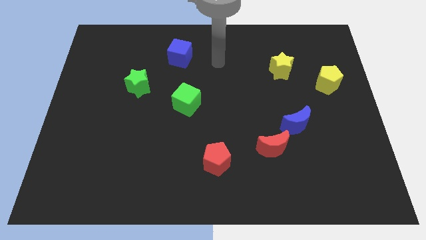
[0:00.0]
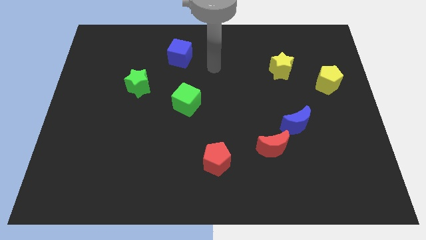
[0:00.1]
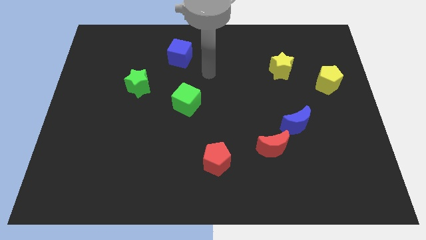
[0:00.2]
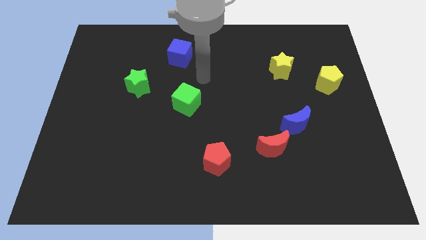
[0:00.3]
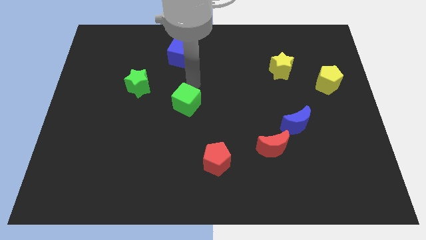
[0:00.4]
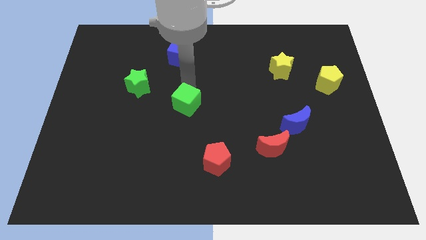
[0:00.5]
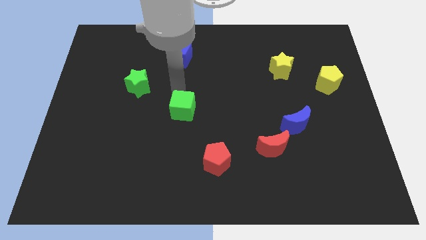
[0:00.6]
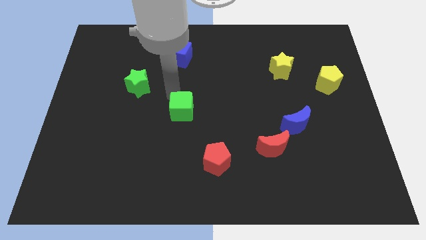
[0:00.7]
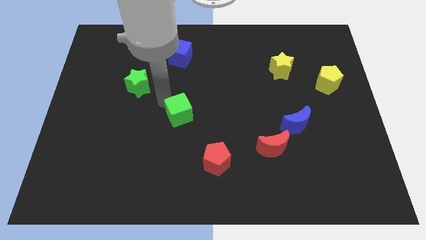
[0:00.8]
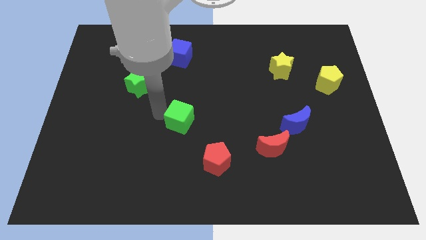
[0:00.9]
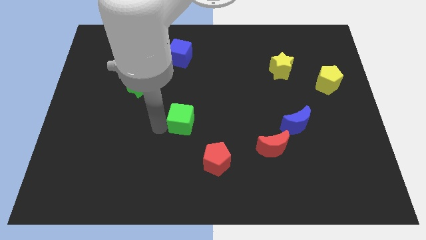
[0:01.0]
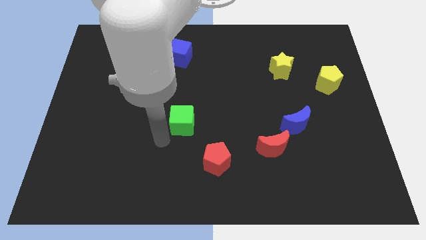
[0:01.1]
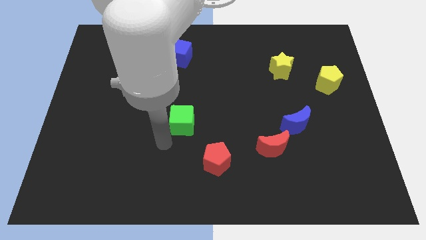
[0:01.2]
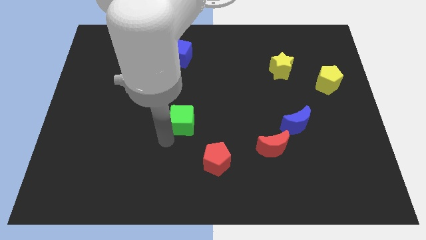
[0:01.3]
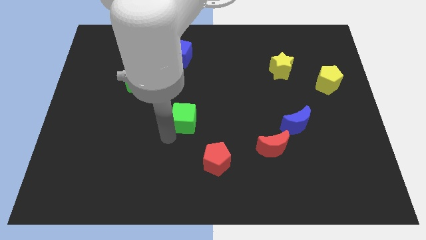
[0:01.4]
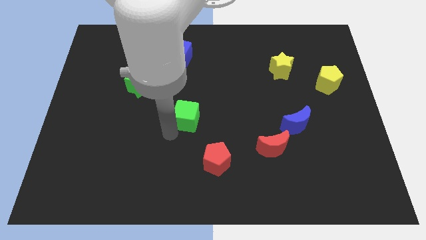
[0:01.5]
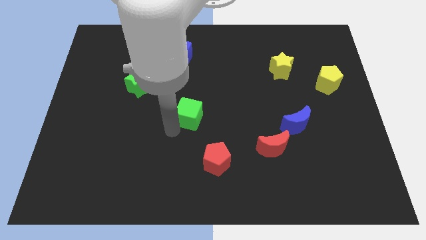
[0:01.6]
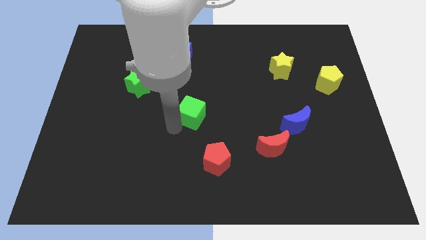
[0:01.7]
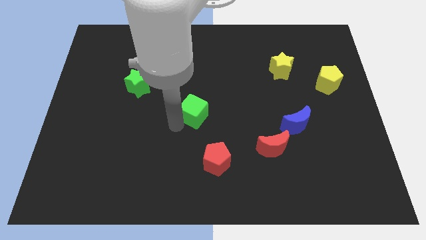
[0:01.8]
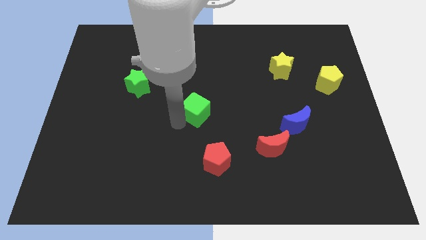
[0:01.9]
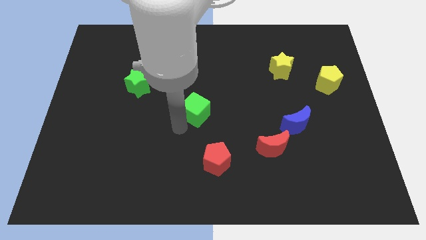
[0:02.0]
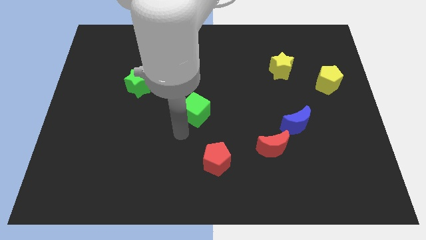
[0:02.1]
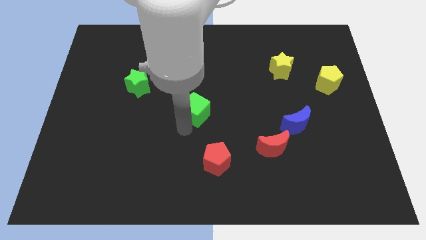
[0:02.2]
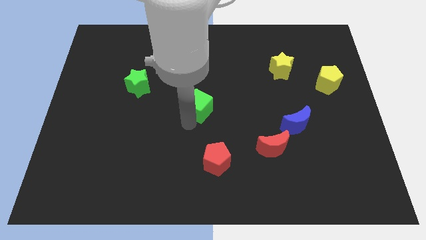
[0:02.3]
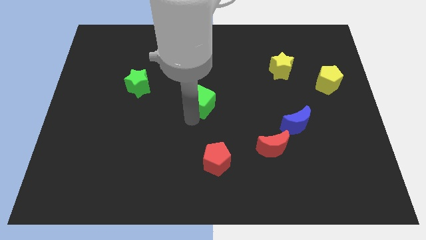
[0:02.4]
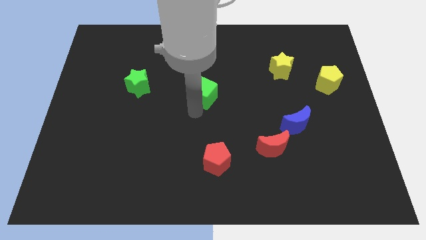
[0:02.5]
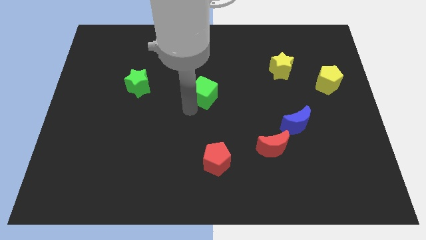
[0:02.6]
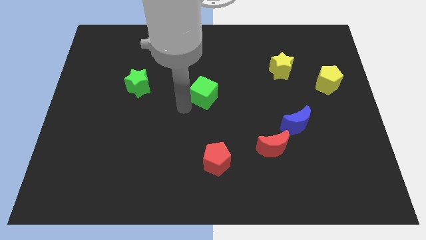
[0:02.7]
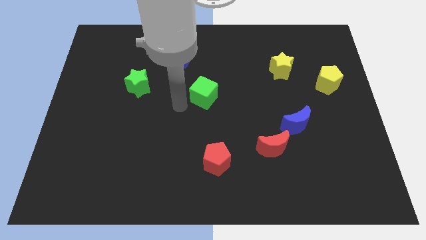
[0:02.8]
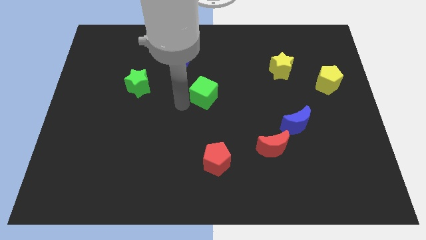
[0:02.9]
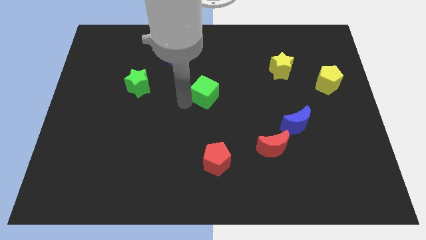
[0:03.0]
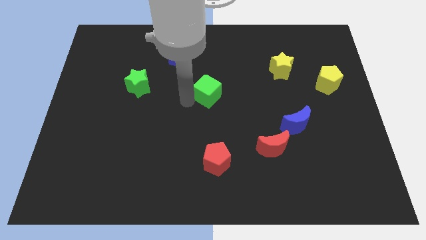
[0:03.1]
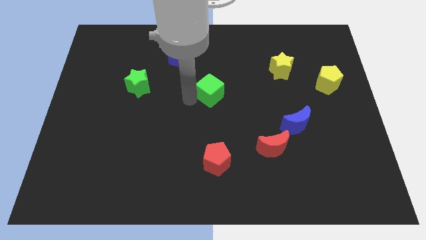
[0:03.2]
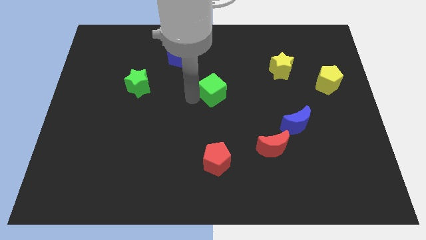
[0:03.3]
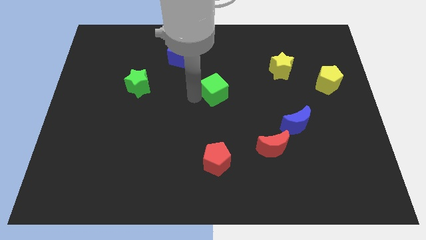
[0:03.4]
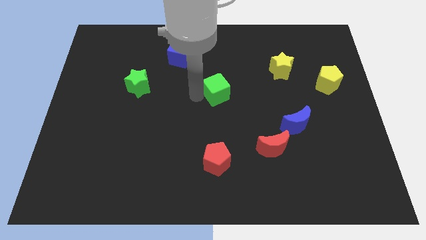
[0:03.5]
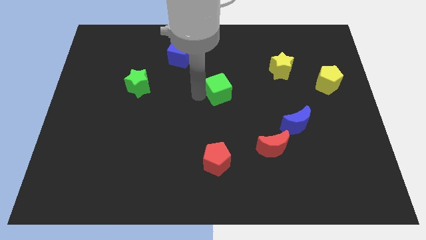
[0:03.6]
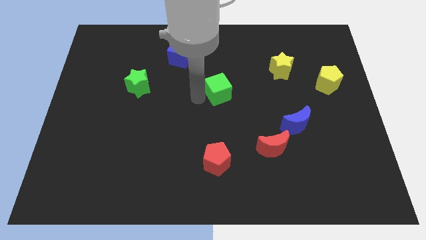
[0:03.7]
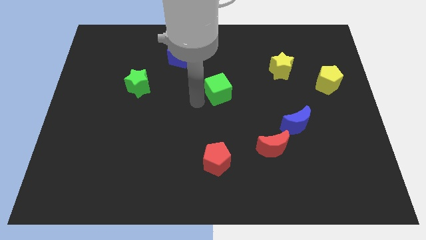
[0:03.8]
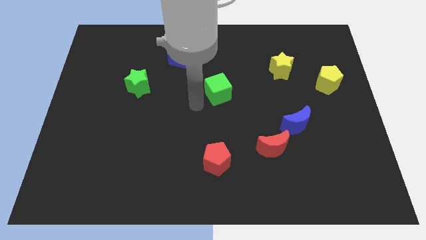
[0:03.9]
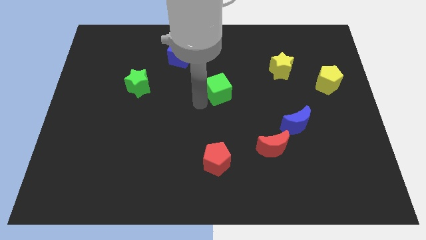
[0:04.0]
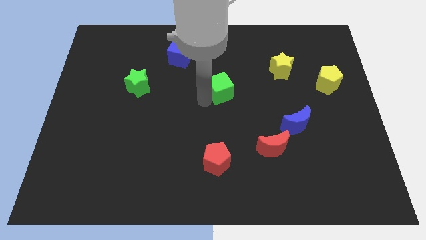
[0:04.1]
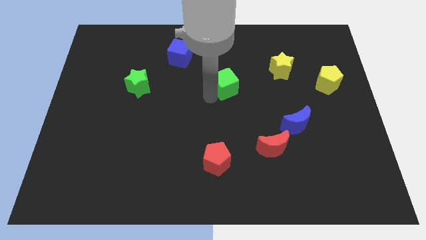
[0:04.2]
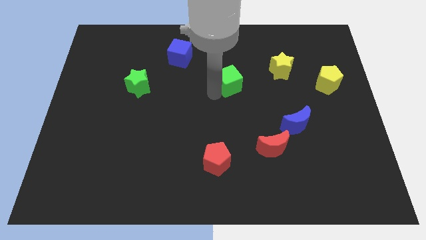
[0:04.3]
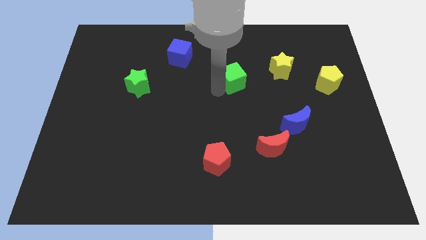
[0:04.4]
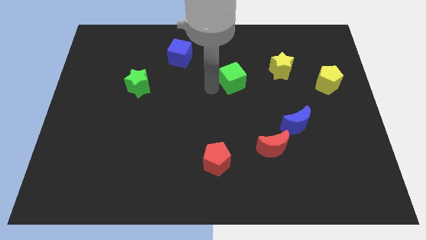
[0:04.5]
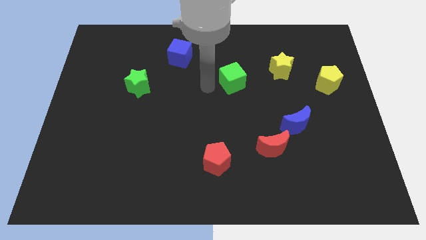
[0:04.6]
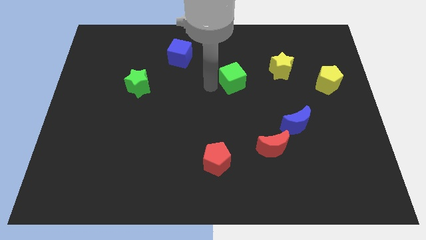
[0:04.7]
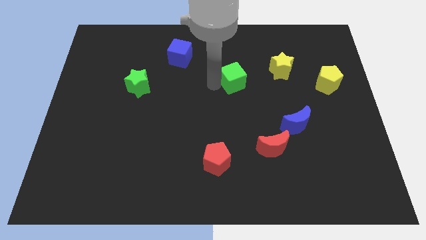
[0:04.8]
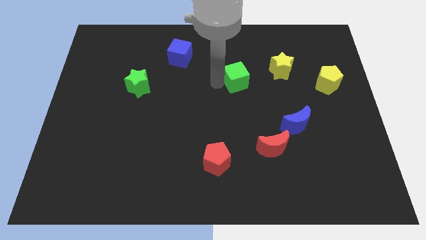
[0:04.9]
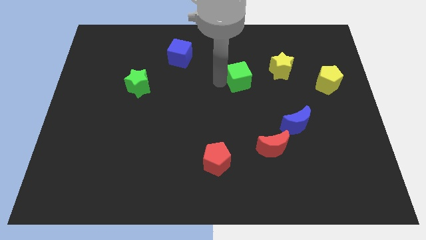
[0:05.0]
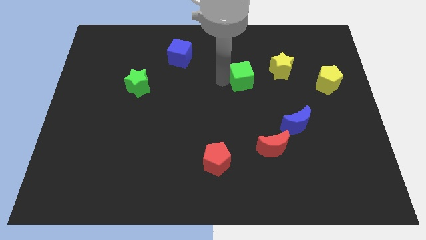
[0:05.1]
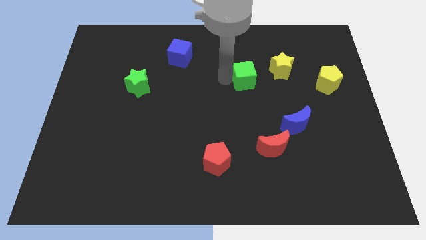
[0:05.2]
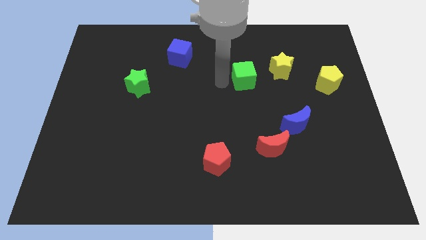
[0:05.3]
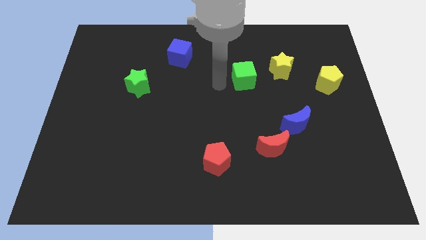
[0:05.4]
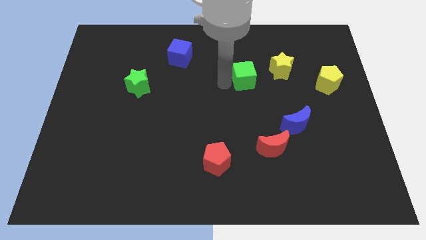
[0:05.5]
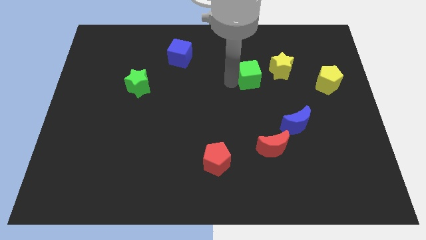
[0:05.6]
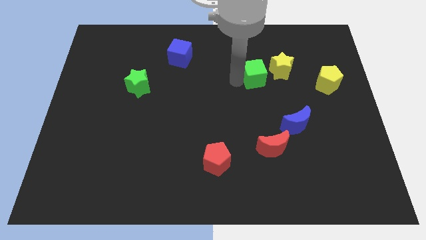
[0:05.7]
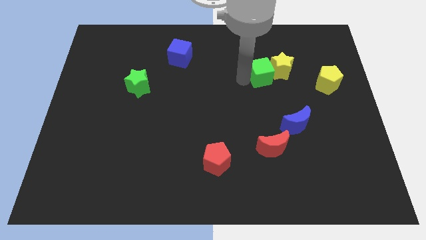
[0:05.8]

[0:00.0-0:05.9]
push the green cube towards the yellow star

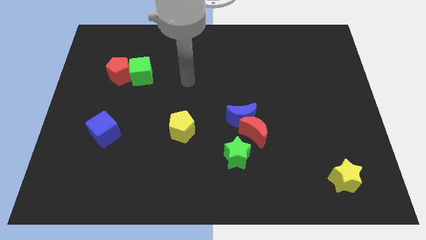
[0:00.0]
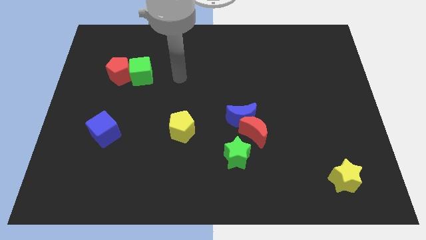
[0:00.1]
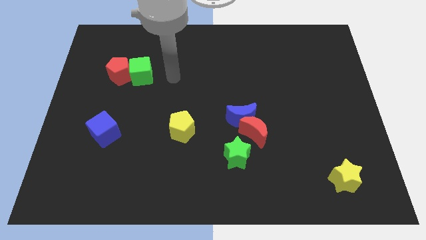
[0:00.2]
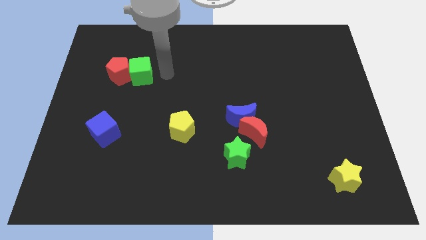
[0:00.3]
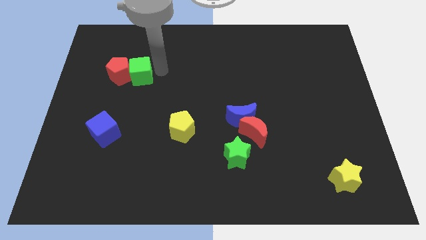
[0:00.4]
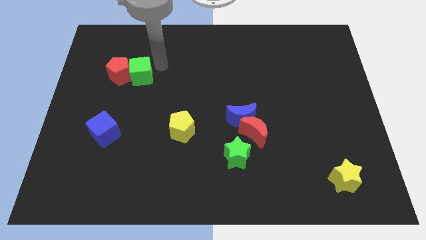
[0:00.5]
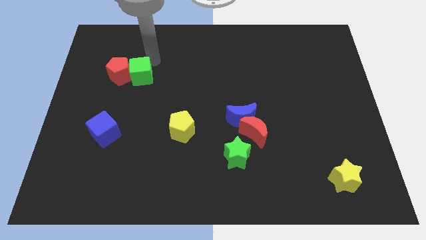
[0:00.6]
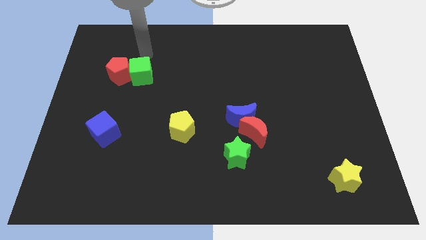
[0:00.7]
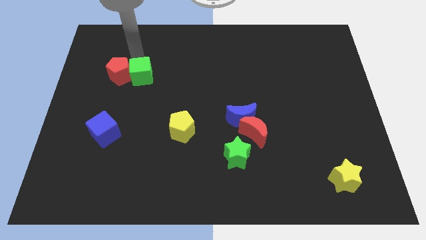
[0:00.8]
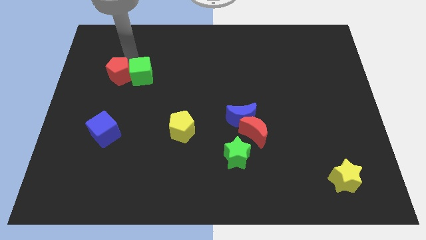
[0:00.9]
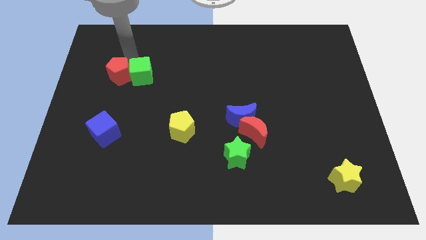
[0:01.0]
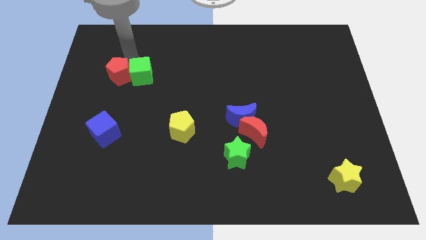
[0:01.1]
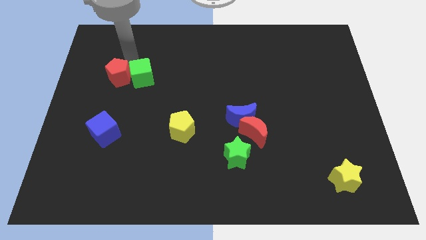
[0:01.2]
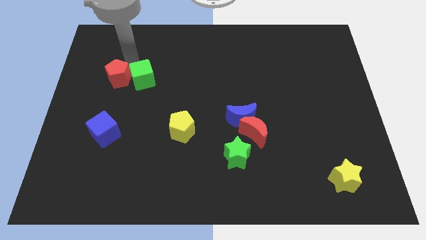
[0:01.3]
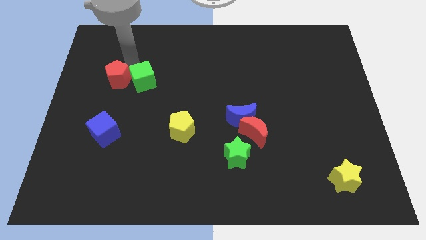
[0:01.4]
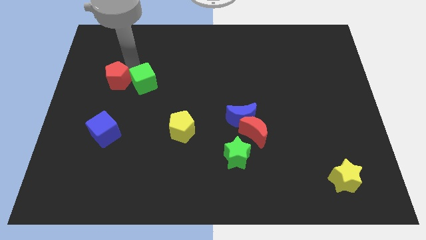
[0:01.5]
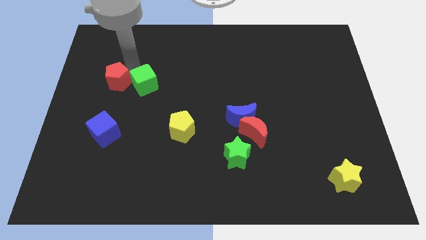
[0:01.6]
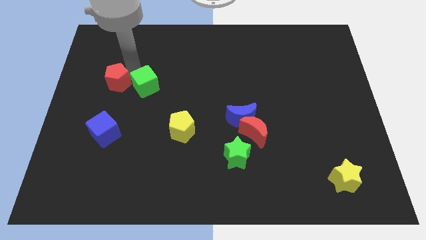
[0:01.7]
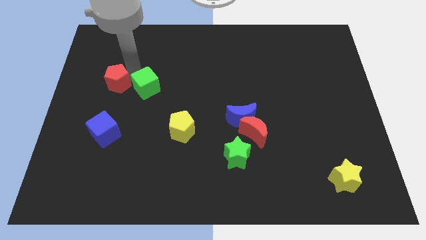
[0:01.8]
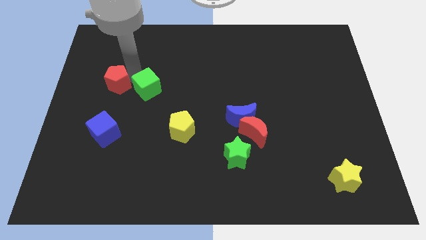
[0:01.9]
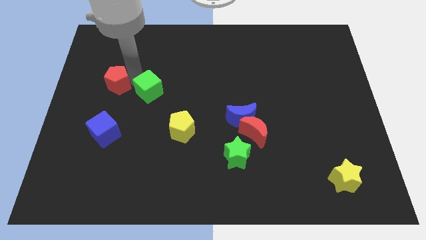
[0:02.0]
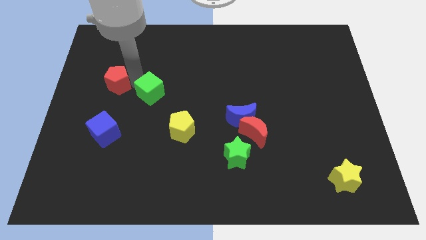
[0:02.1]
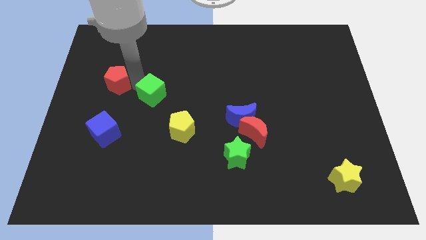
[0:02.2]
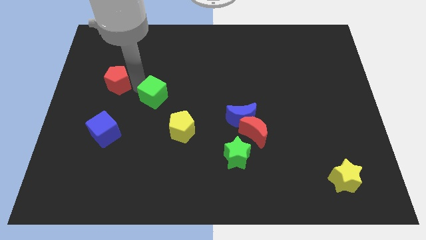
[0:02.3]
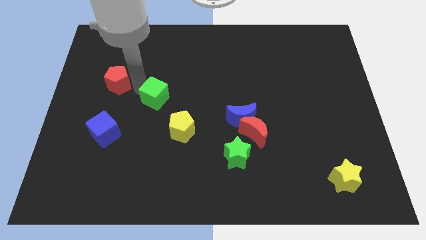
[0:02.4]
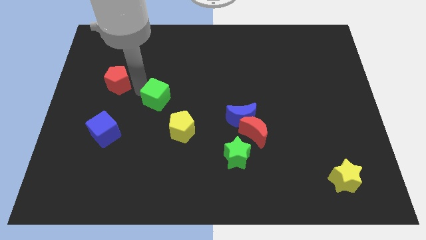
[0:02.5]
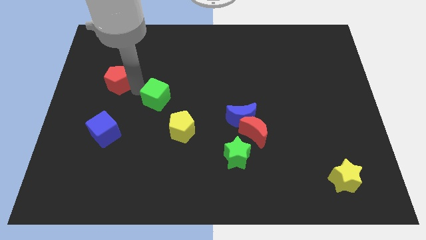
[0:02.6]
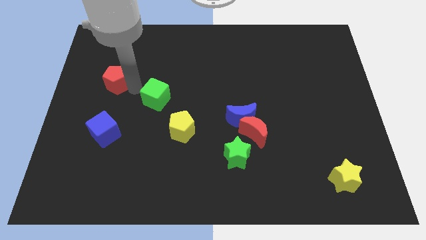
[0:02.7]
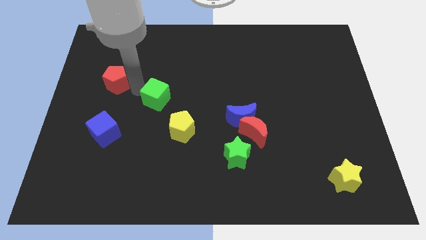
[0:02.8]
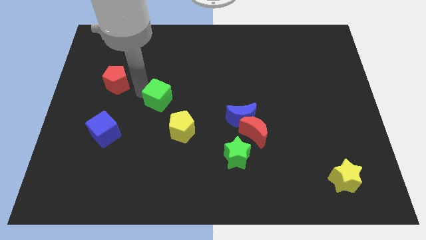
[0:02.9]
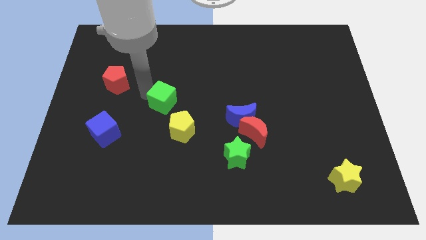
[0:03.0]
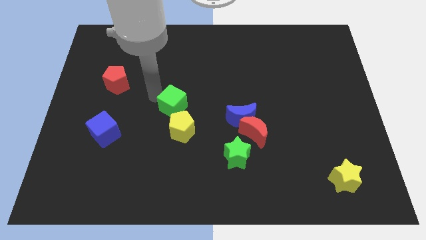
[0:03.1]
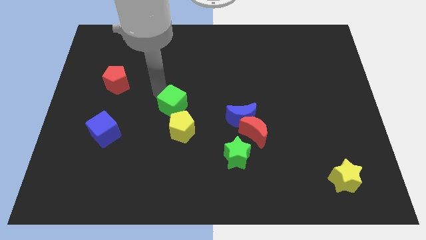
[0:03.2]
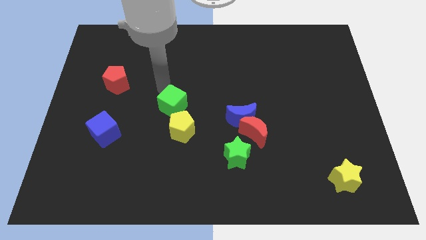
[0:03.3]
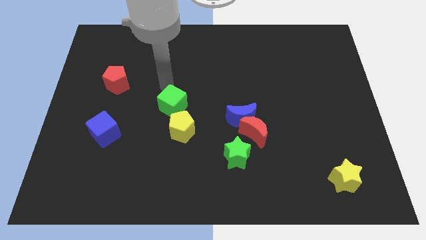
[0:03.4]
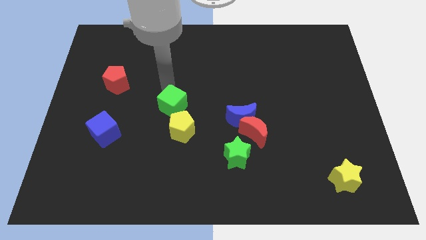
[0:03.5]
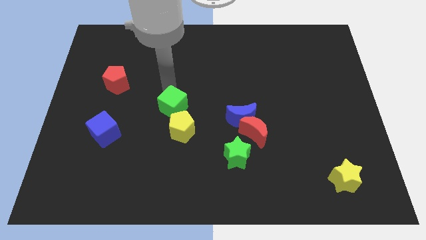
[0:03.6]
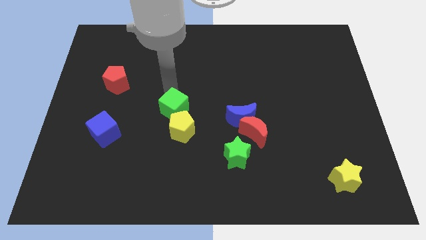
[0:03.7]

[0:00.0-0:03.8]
move the green cube towards the yellow pentagon
